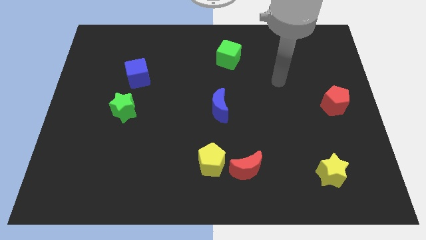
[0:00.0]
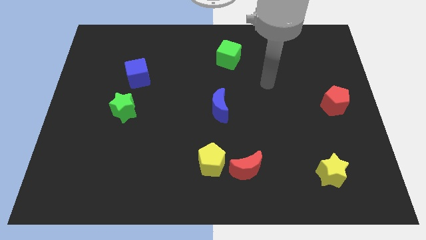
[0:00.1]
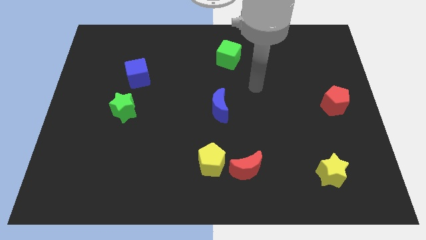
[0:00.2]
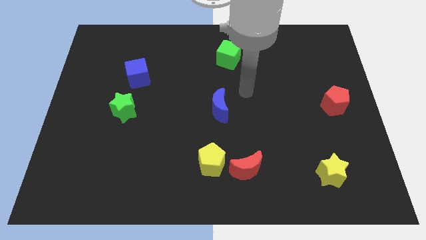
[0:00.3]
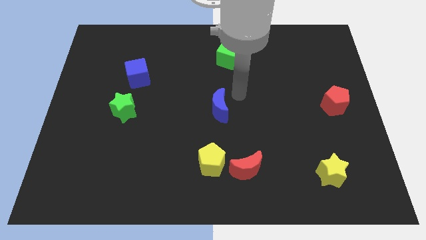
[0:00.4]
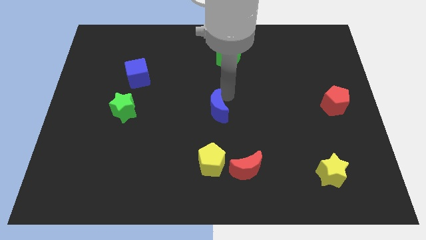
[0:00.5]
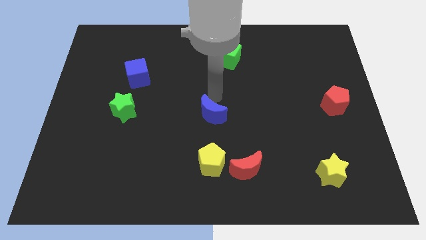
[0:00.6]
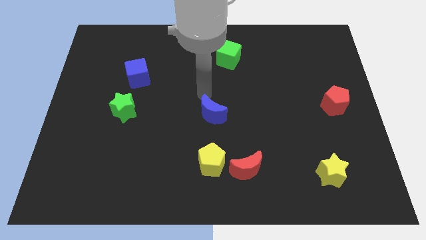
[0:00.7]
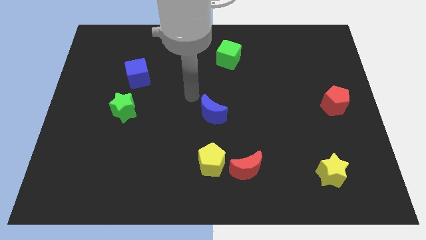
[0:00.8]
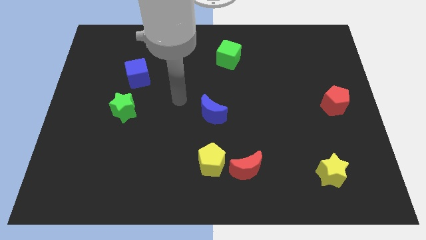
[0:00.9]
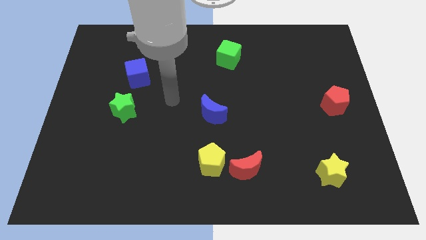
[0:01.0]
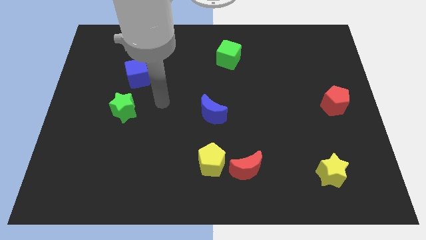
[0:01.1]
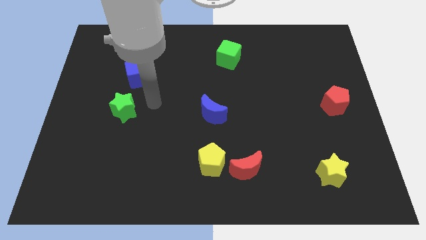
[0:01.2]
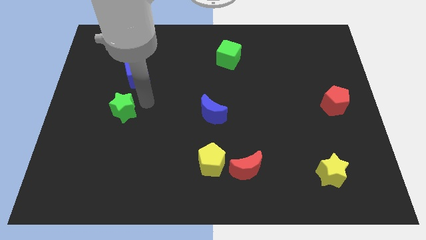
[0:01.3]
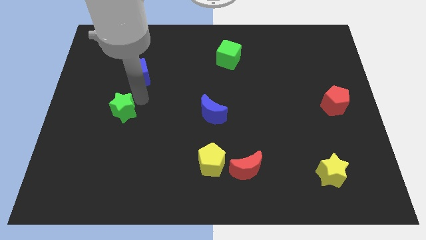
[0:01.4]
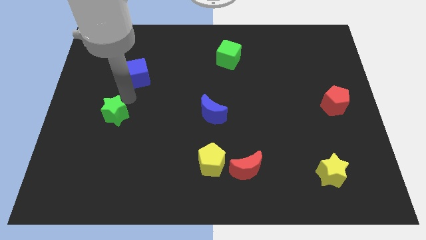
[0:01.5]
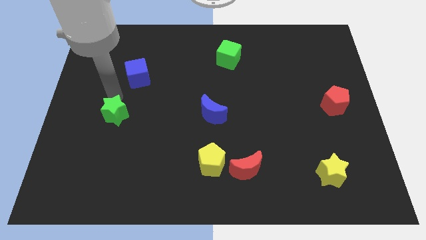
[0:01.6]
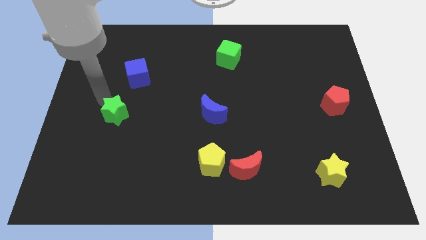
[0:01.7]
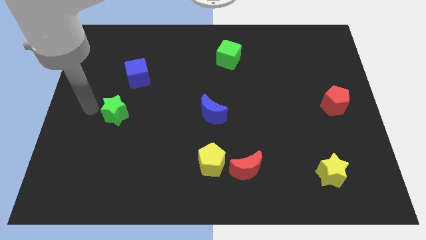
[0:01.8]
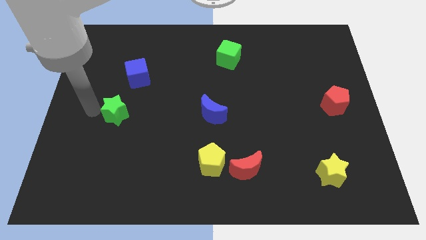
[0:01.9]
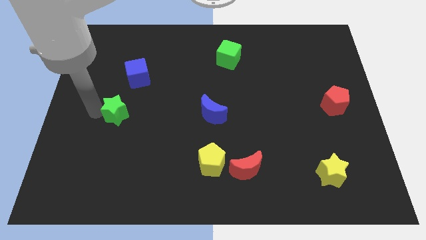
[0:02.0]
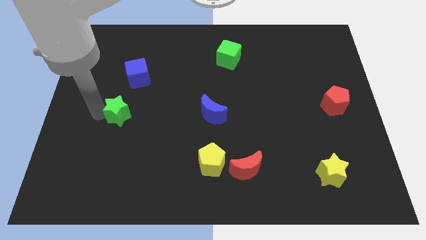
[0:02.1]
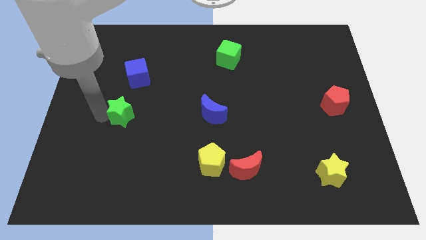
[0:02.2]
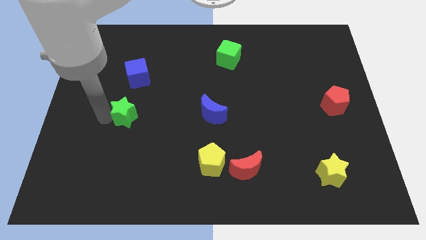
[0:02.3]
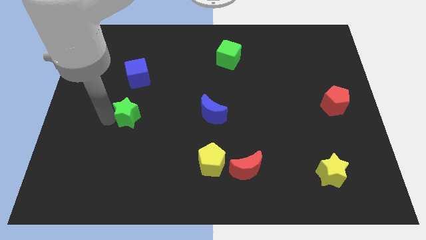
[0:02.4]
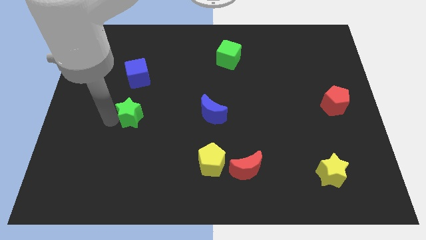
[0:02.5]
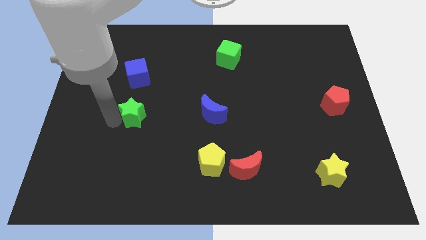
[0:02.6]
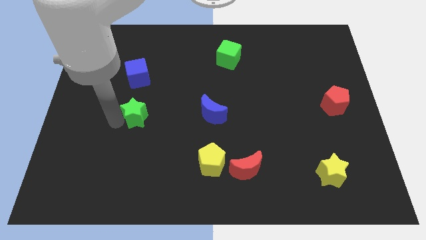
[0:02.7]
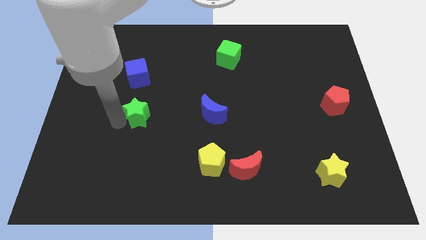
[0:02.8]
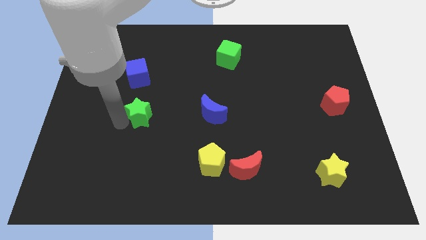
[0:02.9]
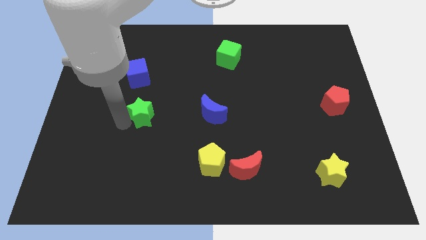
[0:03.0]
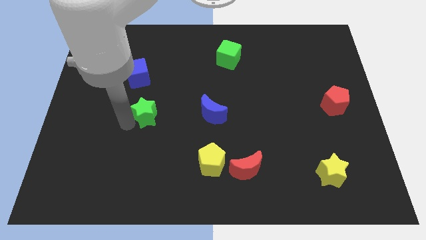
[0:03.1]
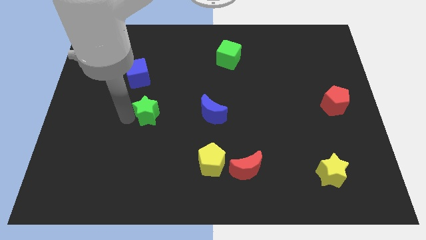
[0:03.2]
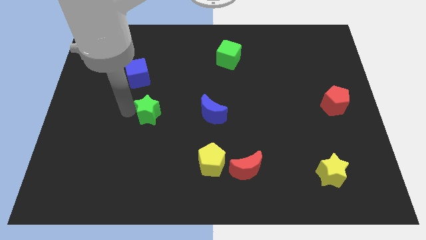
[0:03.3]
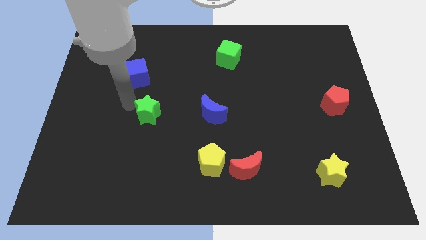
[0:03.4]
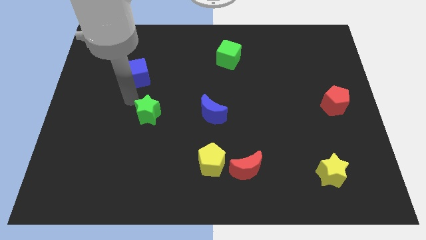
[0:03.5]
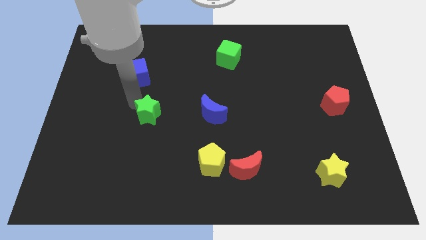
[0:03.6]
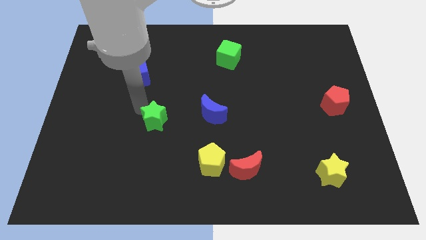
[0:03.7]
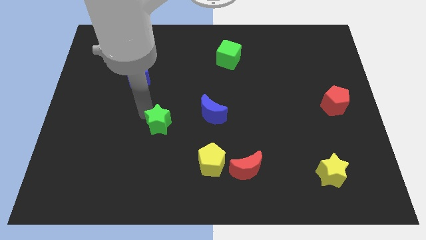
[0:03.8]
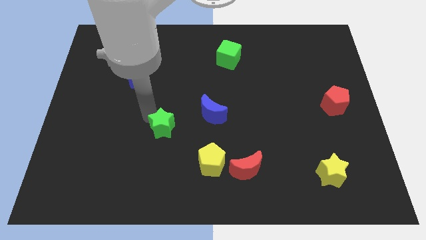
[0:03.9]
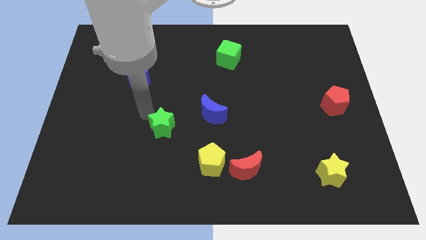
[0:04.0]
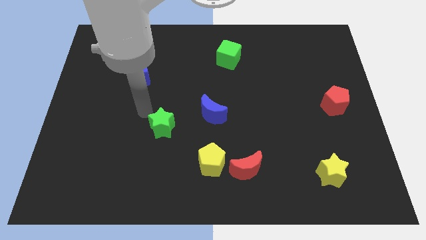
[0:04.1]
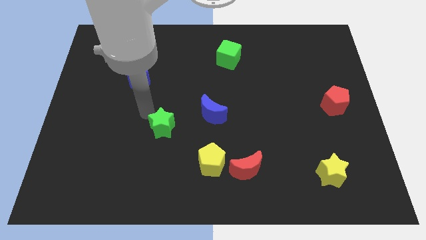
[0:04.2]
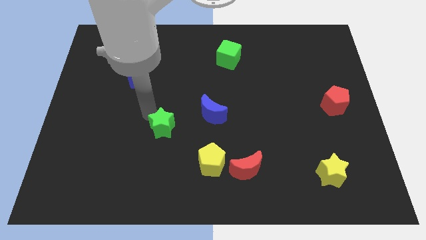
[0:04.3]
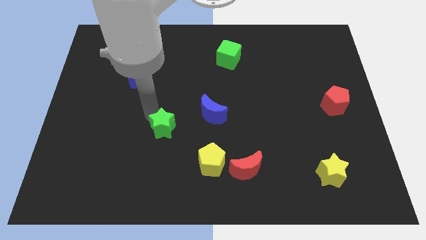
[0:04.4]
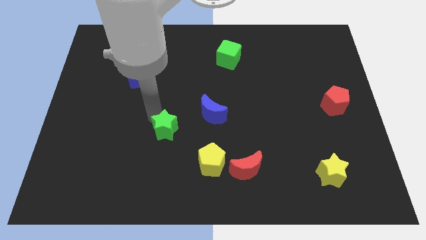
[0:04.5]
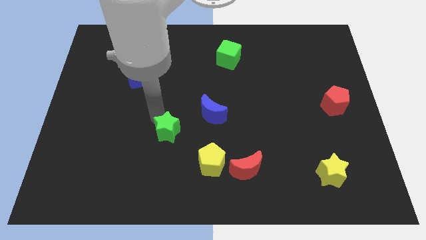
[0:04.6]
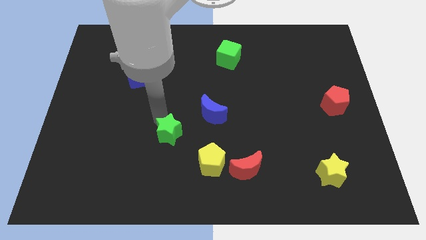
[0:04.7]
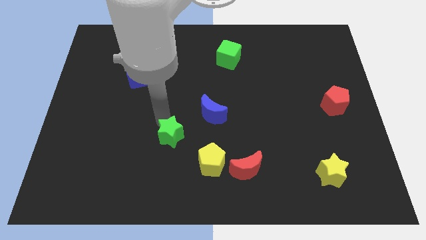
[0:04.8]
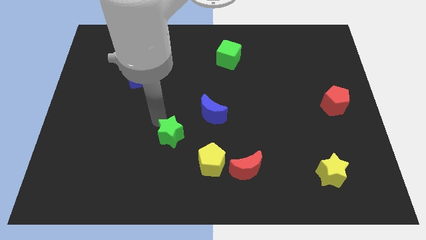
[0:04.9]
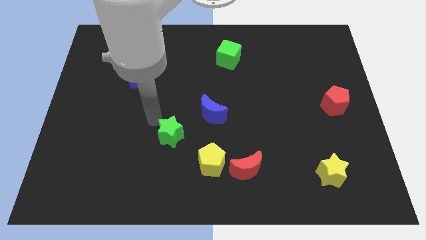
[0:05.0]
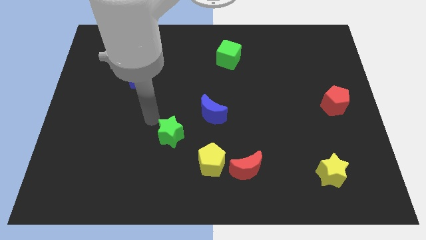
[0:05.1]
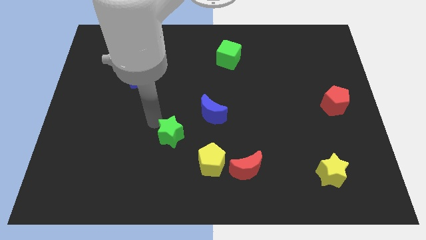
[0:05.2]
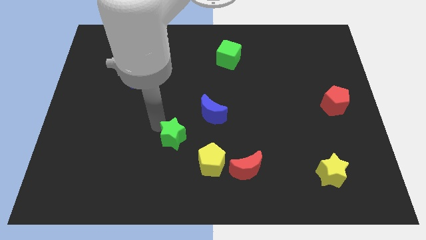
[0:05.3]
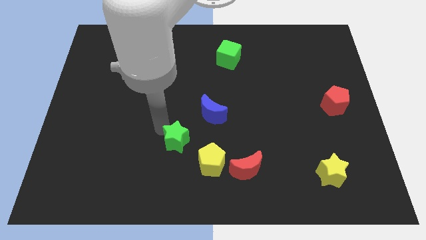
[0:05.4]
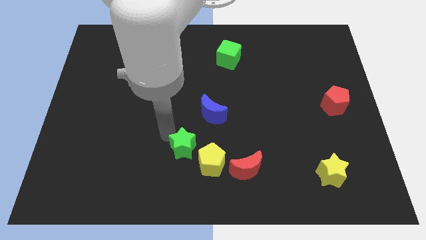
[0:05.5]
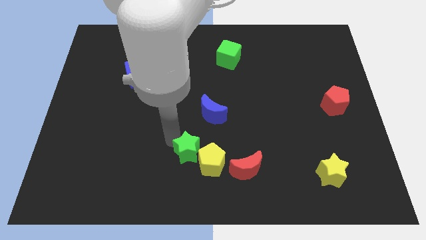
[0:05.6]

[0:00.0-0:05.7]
slide the green star close to the yellow pentagon

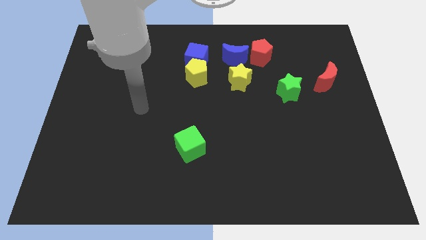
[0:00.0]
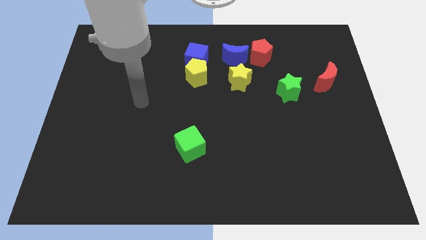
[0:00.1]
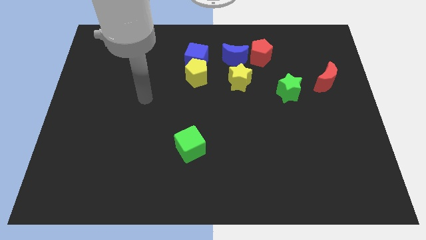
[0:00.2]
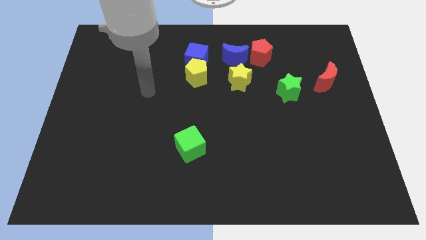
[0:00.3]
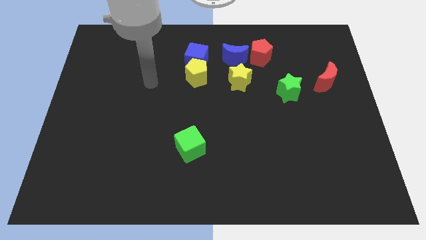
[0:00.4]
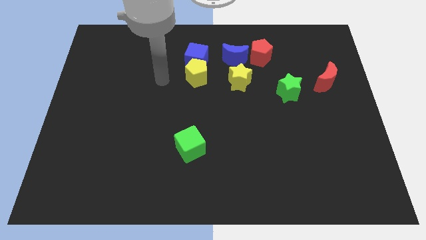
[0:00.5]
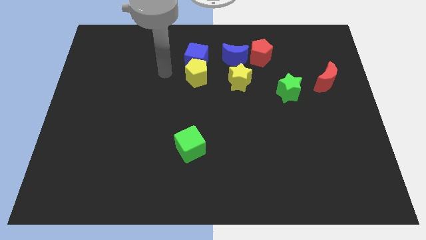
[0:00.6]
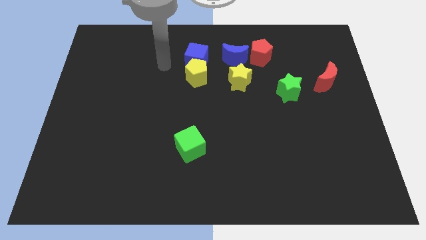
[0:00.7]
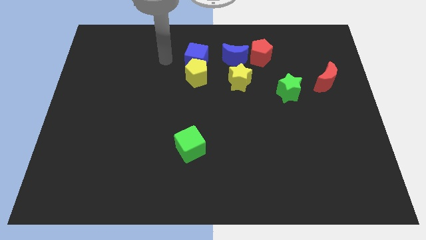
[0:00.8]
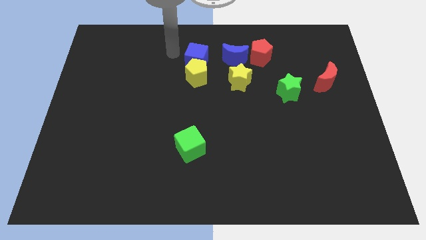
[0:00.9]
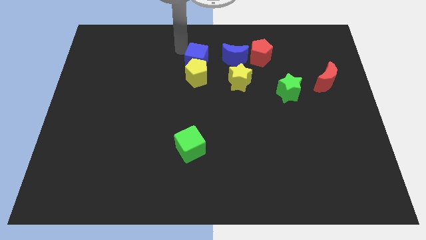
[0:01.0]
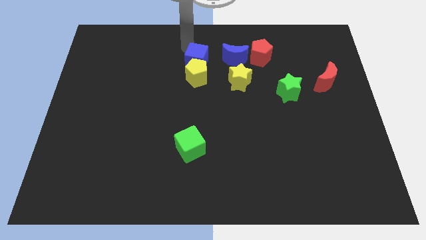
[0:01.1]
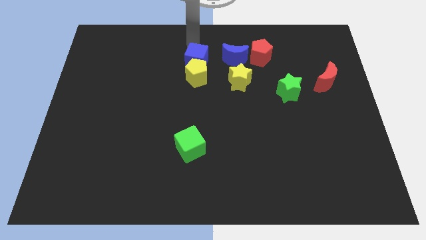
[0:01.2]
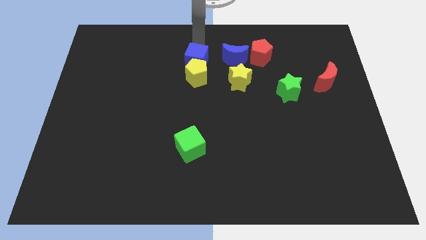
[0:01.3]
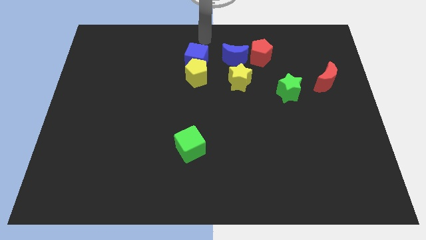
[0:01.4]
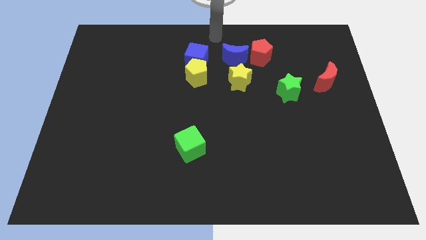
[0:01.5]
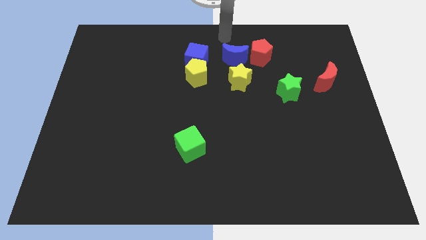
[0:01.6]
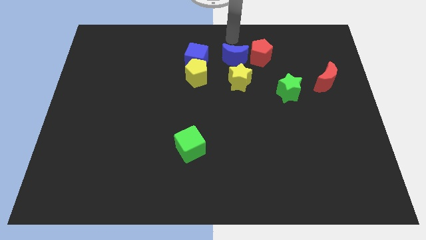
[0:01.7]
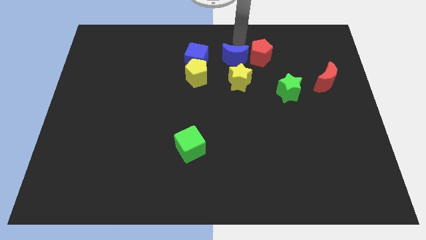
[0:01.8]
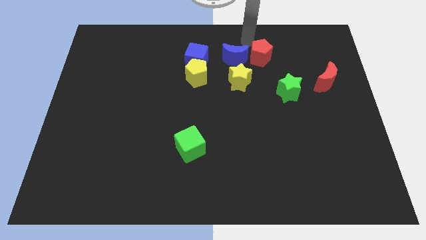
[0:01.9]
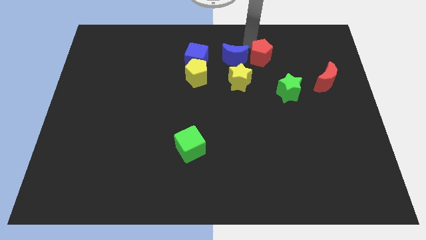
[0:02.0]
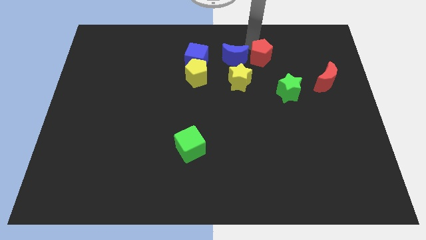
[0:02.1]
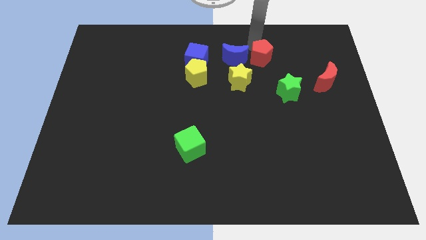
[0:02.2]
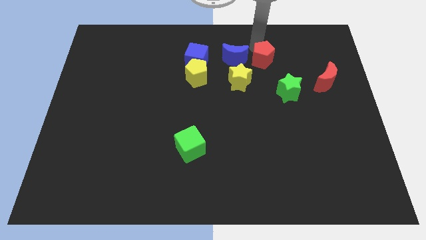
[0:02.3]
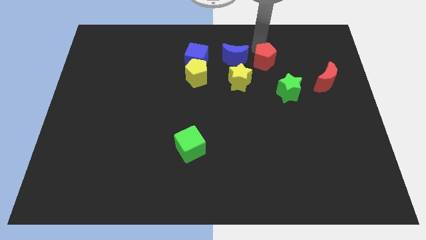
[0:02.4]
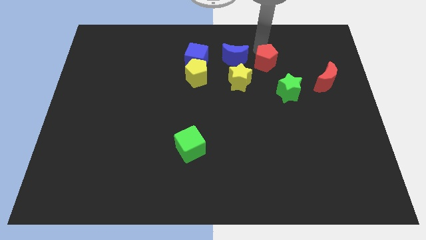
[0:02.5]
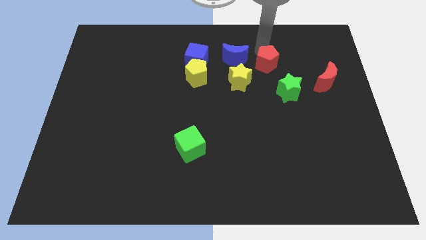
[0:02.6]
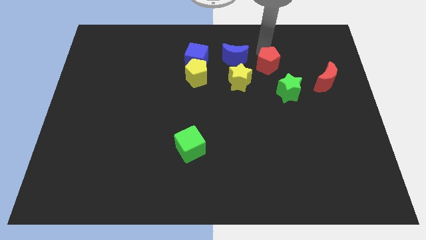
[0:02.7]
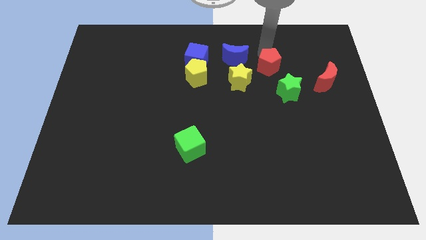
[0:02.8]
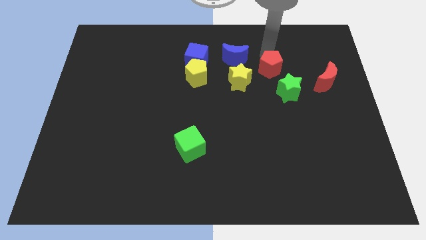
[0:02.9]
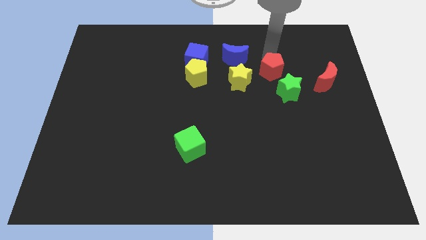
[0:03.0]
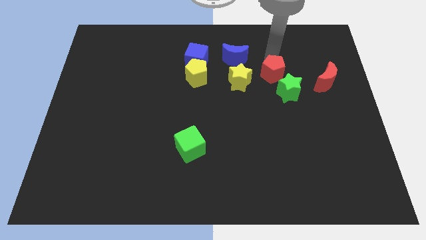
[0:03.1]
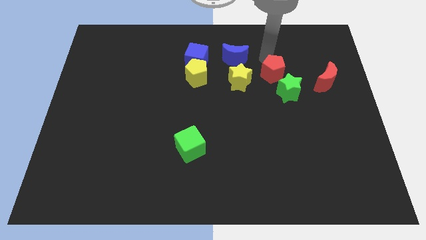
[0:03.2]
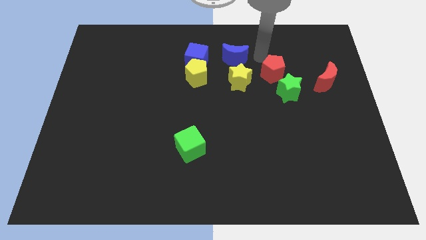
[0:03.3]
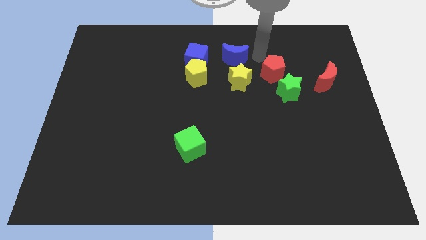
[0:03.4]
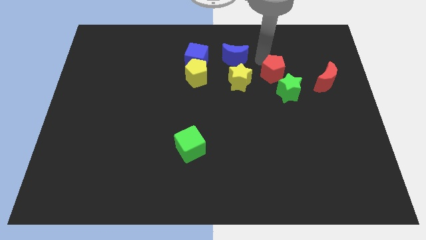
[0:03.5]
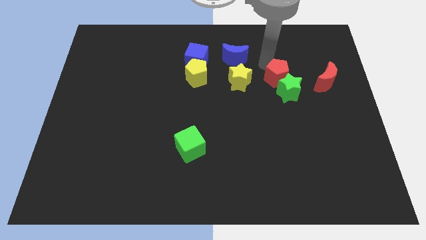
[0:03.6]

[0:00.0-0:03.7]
move the red pentagon to the green star
